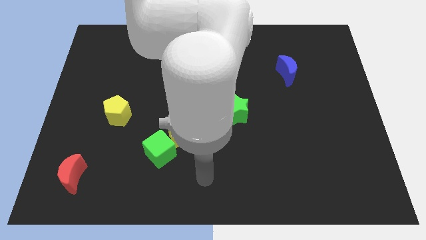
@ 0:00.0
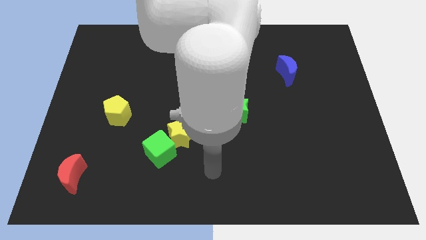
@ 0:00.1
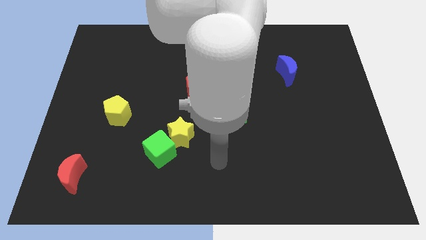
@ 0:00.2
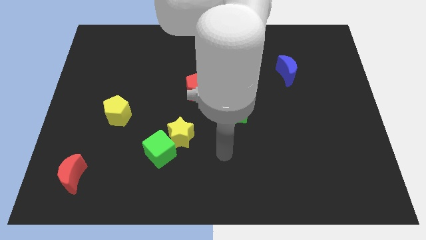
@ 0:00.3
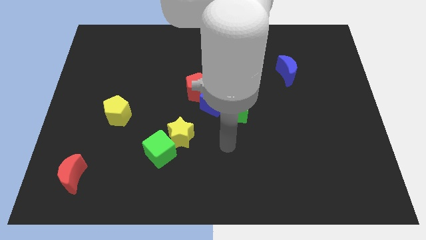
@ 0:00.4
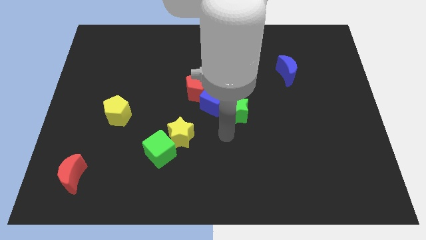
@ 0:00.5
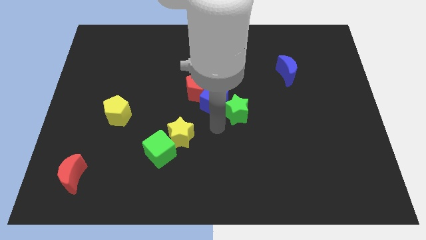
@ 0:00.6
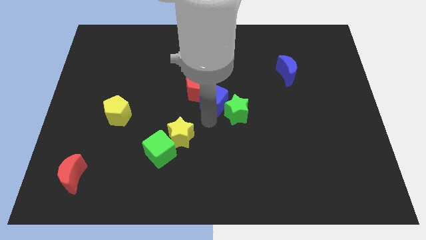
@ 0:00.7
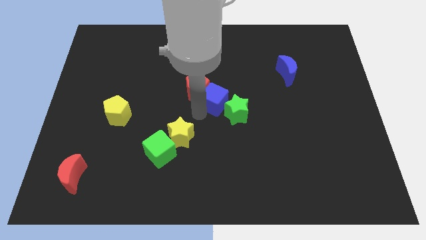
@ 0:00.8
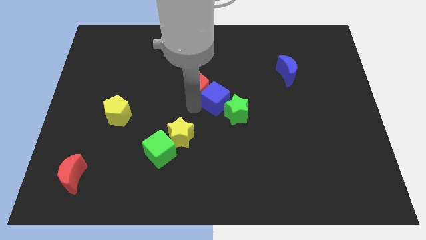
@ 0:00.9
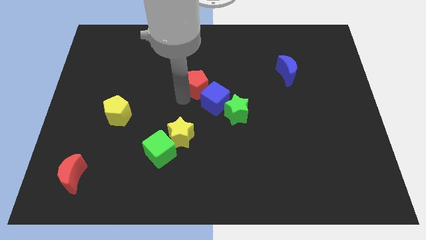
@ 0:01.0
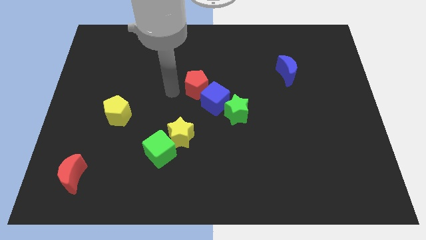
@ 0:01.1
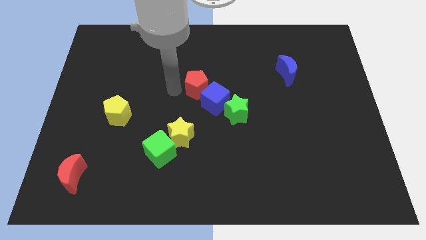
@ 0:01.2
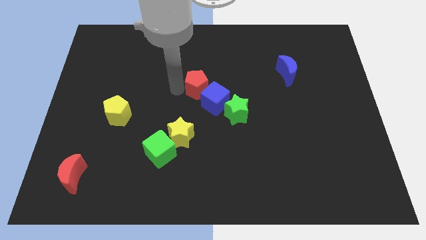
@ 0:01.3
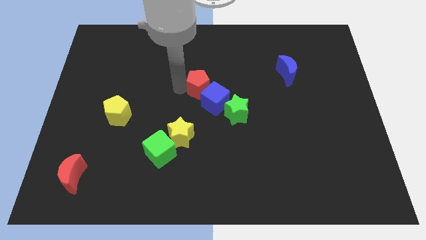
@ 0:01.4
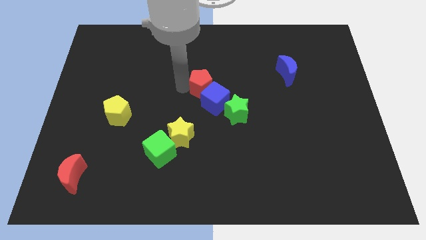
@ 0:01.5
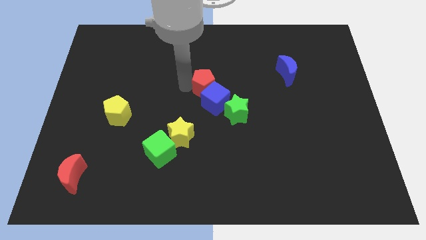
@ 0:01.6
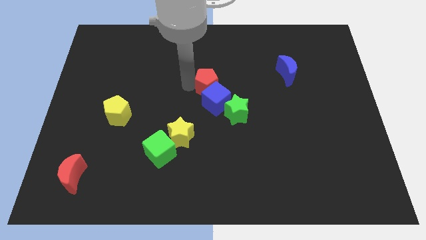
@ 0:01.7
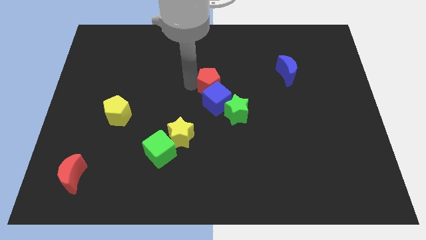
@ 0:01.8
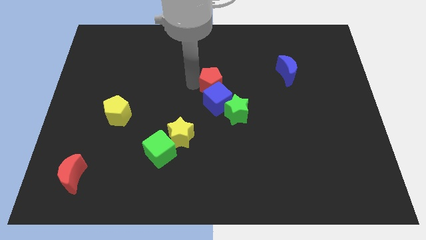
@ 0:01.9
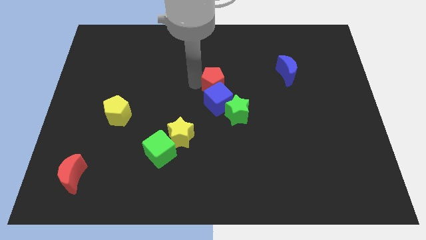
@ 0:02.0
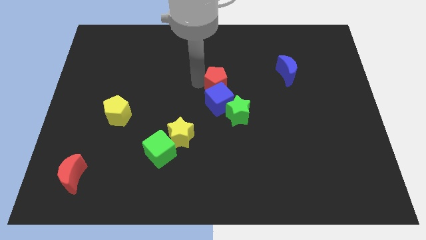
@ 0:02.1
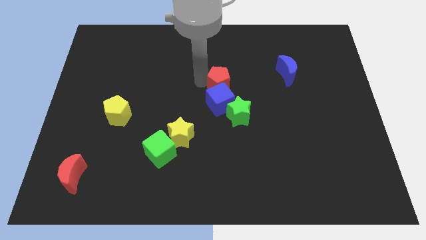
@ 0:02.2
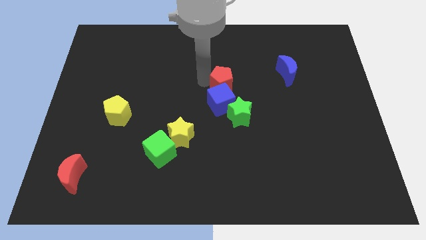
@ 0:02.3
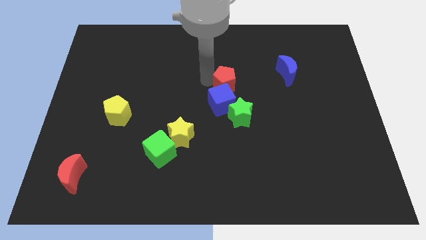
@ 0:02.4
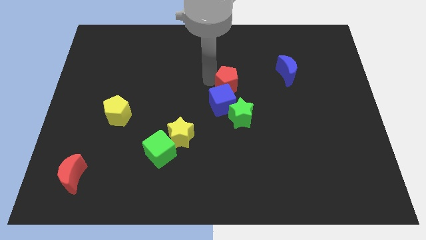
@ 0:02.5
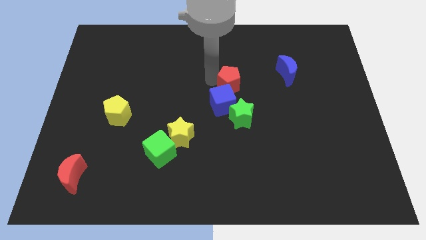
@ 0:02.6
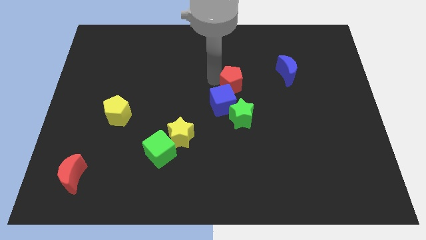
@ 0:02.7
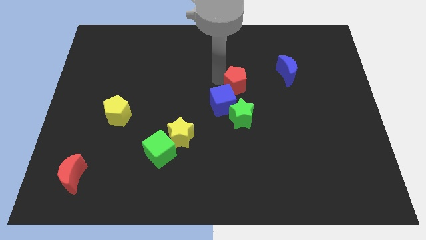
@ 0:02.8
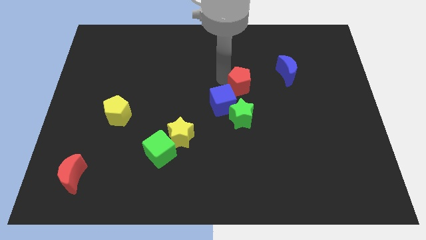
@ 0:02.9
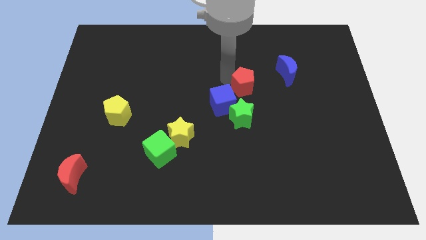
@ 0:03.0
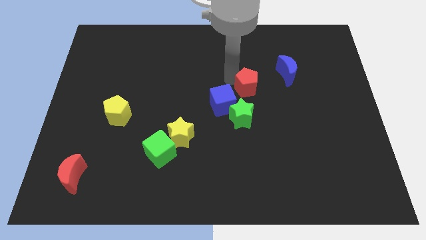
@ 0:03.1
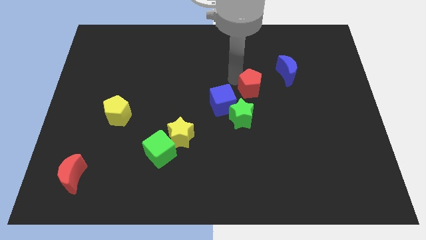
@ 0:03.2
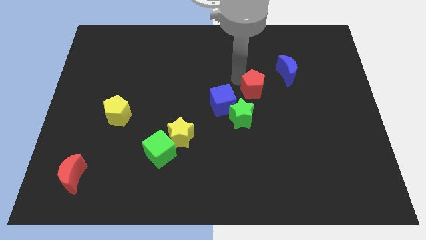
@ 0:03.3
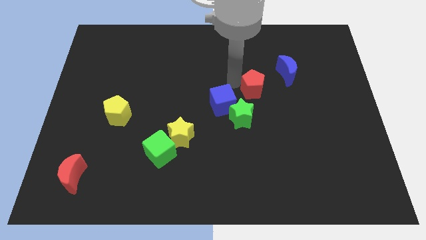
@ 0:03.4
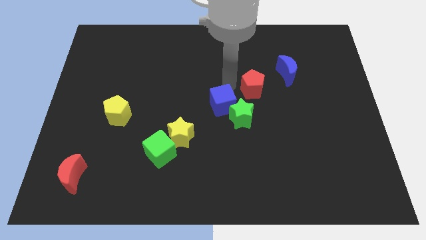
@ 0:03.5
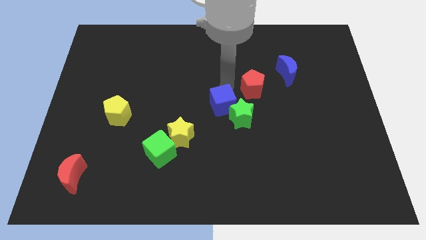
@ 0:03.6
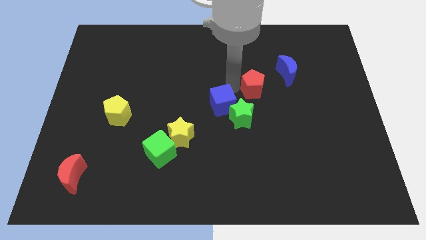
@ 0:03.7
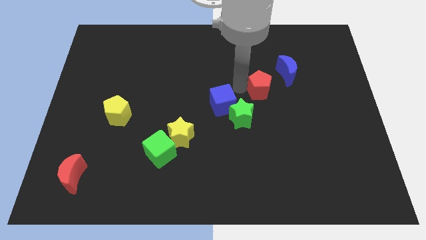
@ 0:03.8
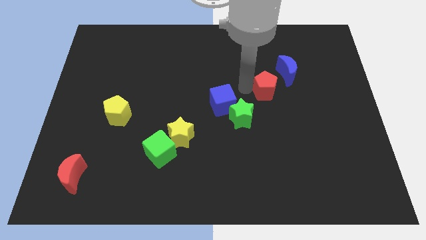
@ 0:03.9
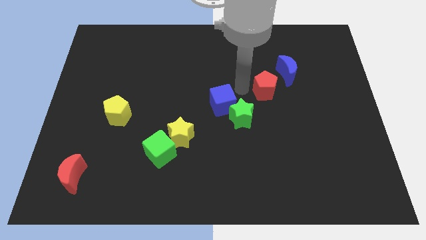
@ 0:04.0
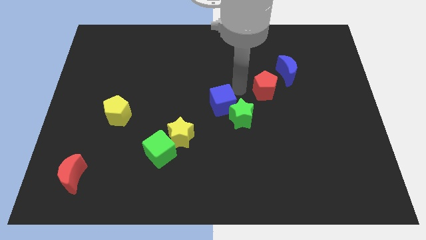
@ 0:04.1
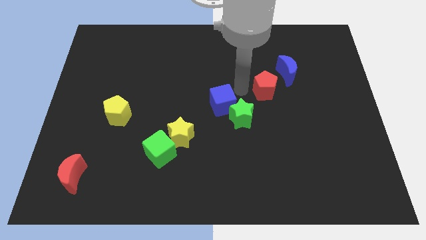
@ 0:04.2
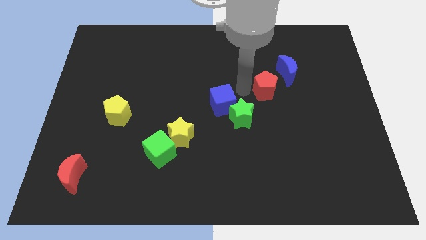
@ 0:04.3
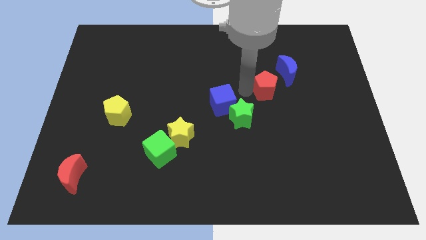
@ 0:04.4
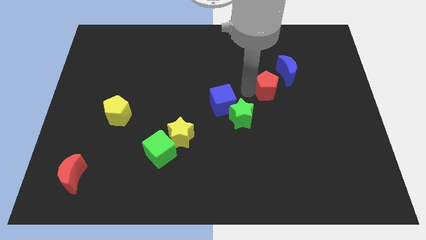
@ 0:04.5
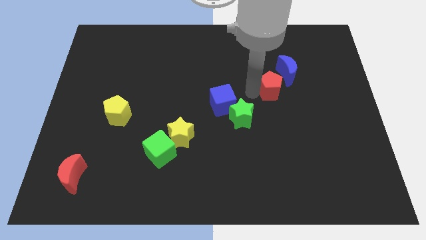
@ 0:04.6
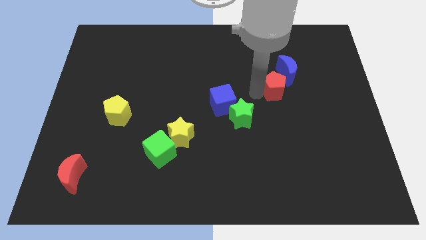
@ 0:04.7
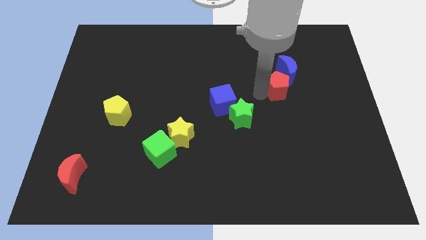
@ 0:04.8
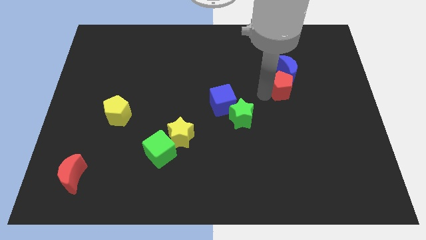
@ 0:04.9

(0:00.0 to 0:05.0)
slide the red pentagon right

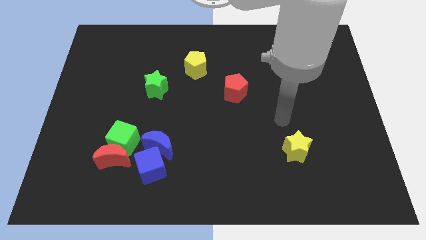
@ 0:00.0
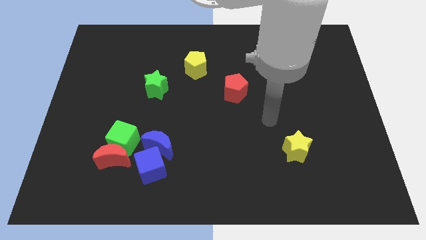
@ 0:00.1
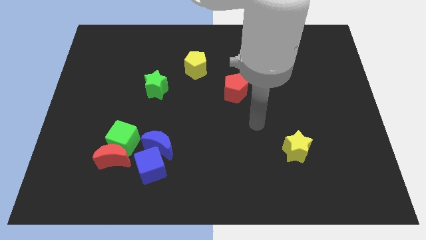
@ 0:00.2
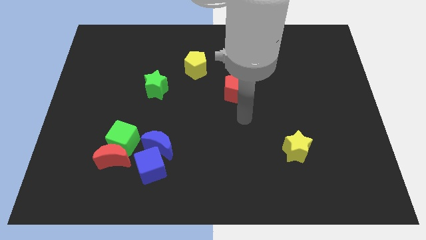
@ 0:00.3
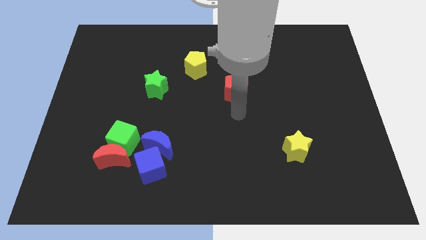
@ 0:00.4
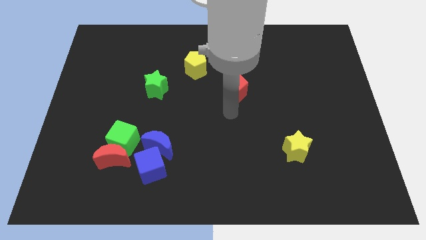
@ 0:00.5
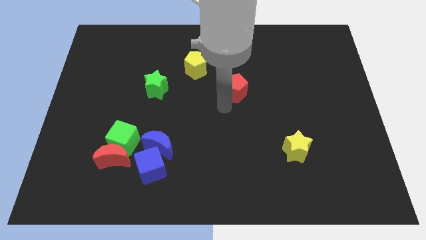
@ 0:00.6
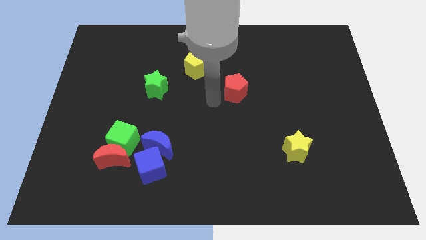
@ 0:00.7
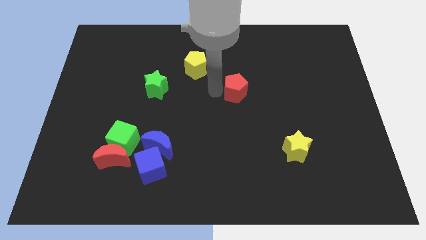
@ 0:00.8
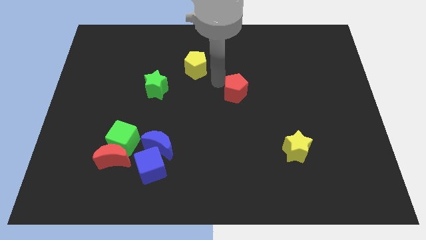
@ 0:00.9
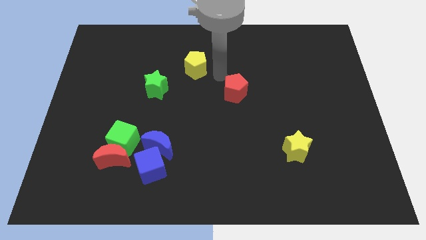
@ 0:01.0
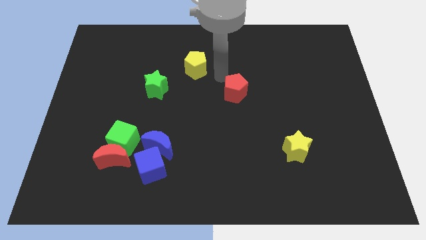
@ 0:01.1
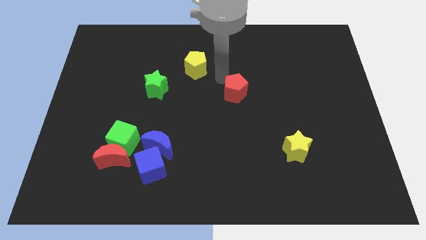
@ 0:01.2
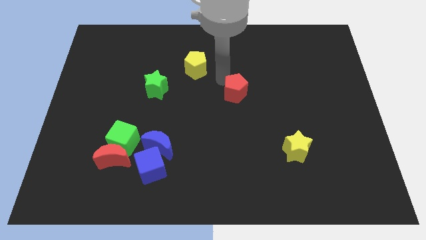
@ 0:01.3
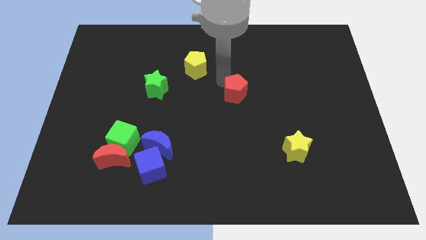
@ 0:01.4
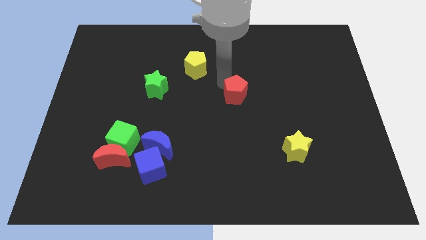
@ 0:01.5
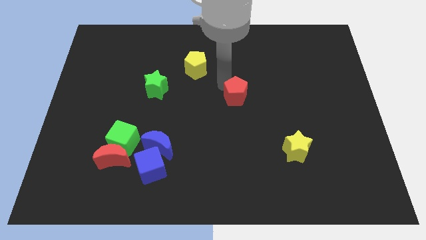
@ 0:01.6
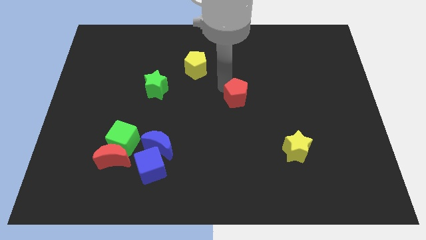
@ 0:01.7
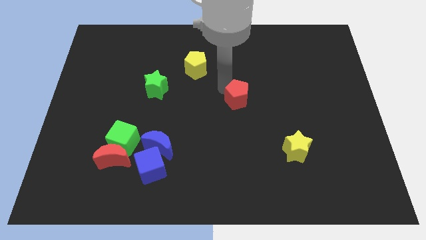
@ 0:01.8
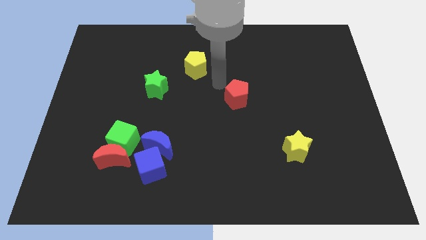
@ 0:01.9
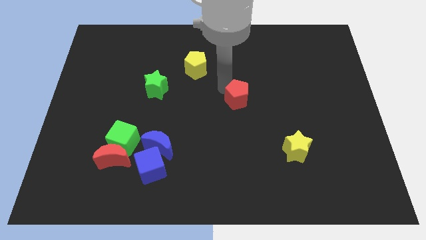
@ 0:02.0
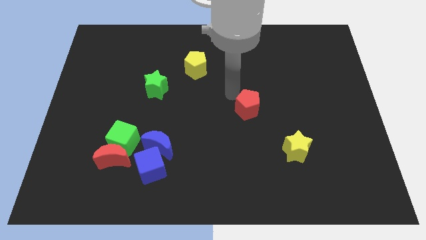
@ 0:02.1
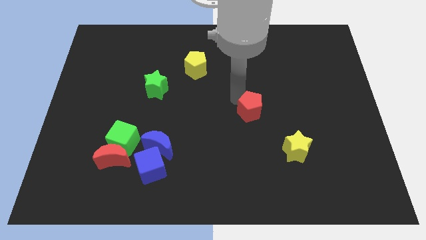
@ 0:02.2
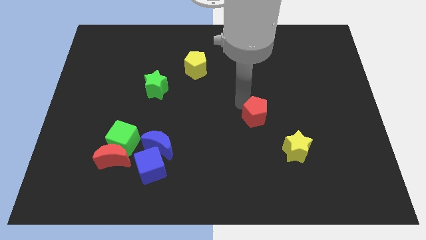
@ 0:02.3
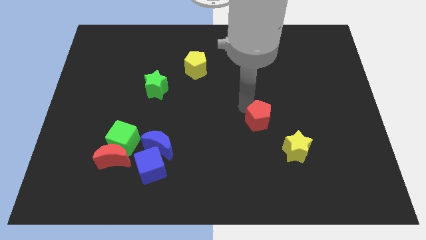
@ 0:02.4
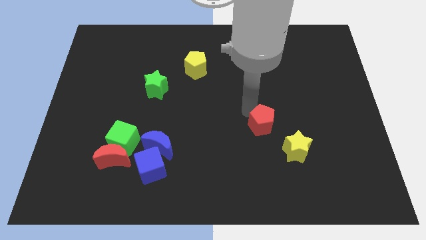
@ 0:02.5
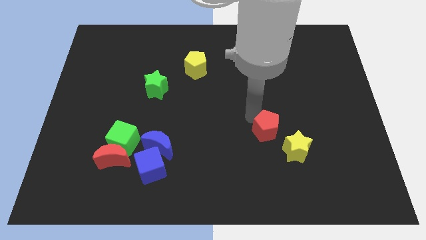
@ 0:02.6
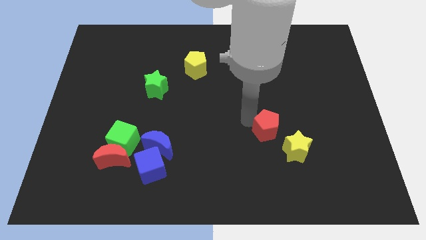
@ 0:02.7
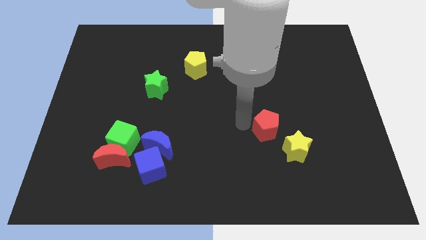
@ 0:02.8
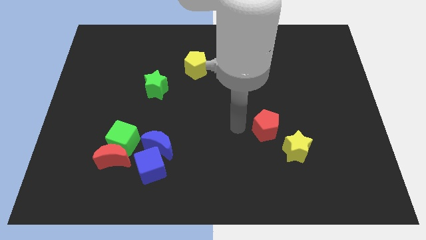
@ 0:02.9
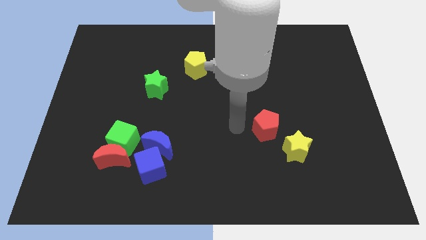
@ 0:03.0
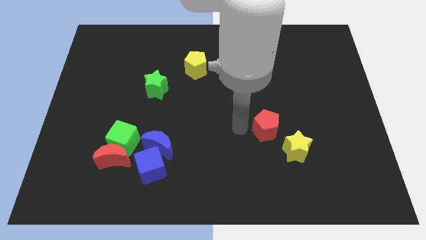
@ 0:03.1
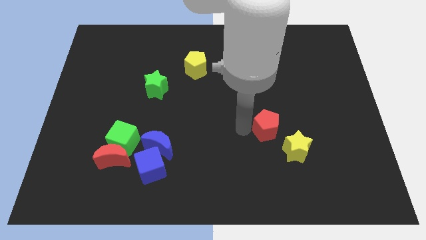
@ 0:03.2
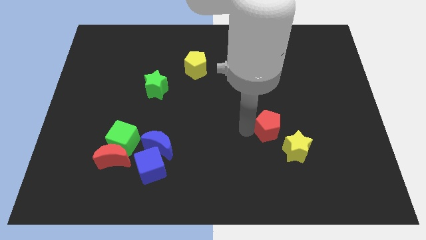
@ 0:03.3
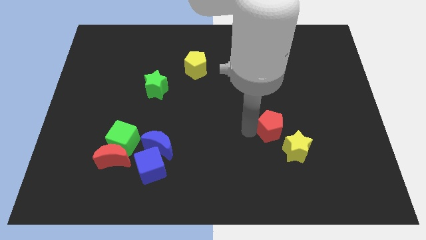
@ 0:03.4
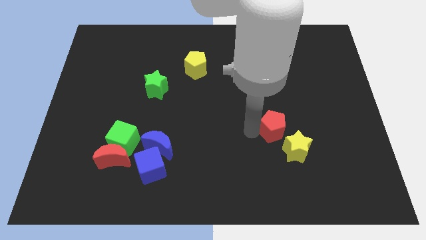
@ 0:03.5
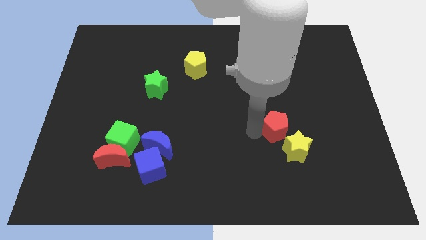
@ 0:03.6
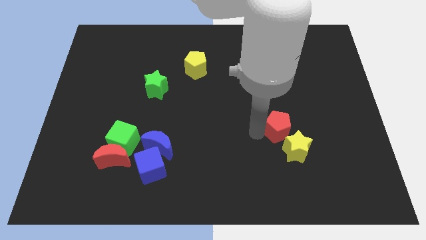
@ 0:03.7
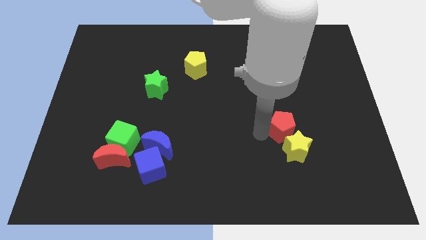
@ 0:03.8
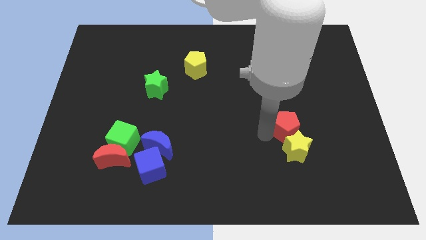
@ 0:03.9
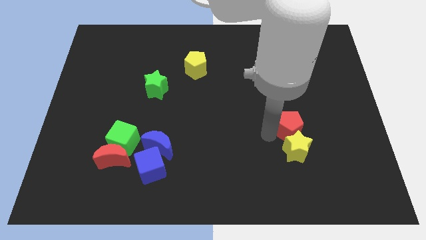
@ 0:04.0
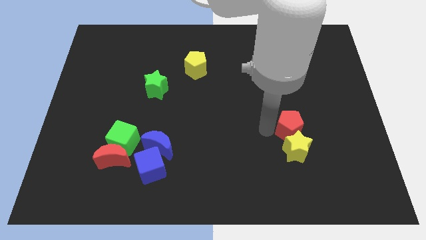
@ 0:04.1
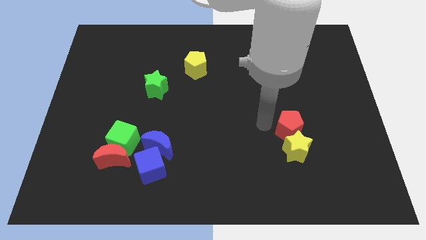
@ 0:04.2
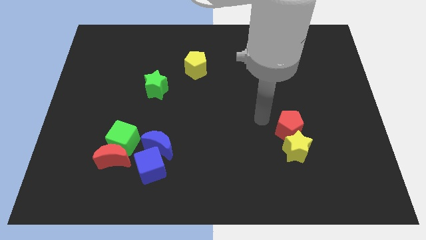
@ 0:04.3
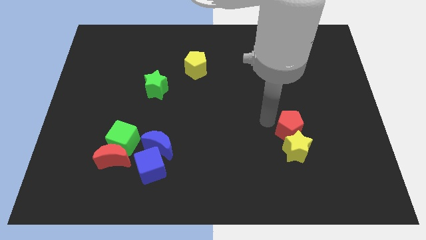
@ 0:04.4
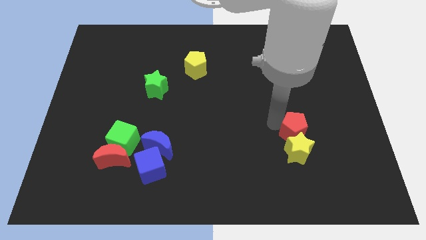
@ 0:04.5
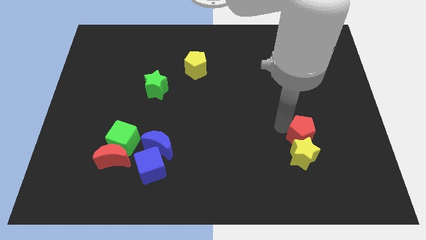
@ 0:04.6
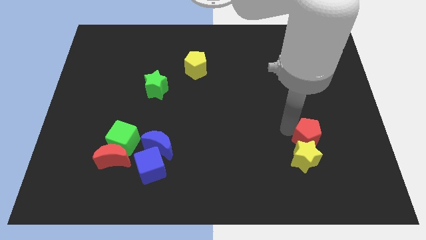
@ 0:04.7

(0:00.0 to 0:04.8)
push the red pentagon downwards and then to the right
